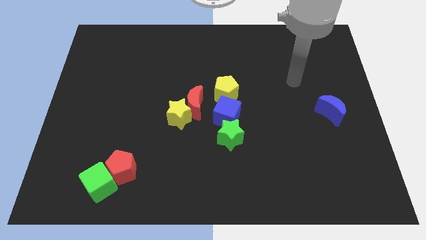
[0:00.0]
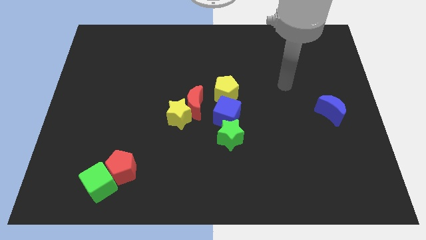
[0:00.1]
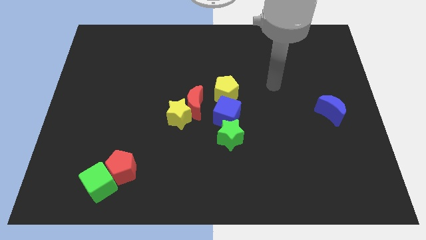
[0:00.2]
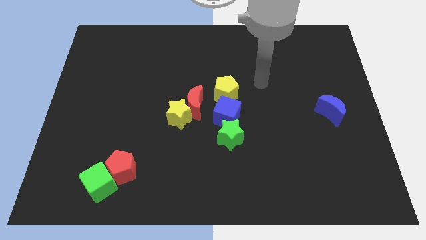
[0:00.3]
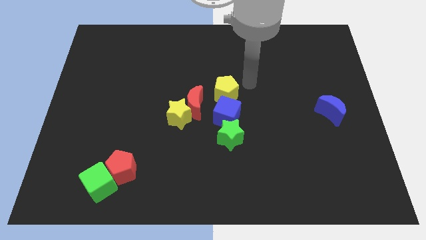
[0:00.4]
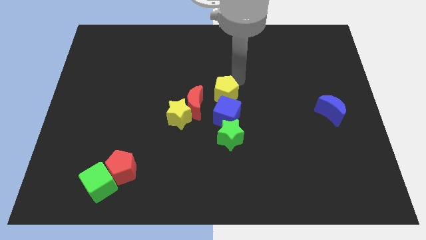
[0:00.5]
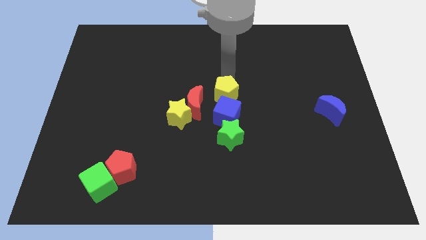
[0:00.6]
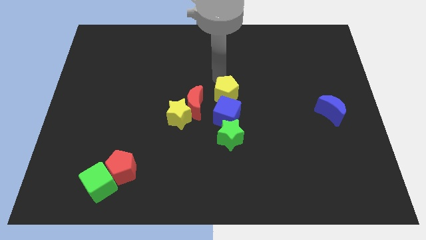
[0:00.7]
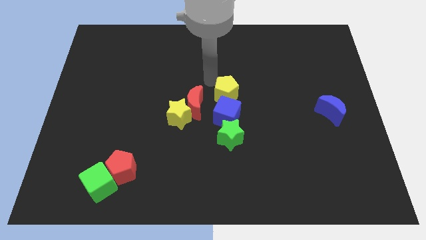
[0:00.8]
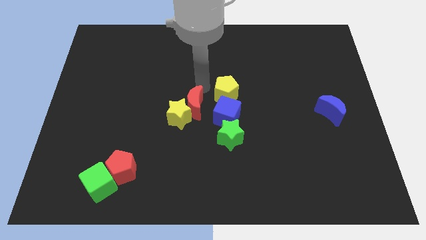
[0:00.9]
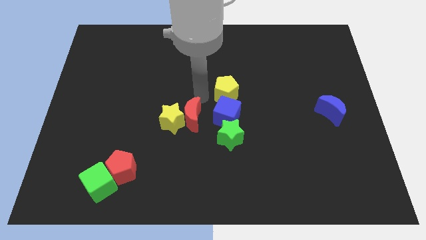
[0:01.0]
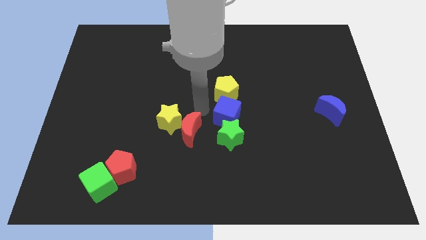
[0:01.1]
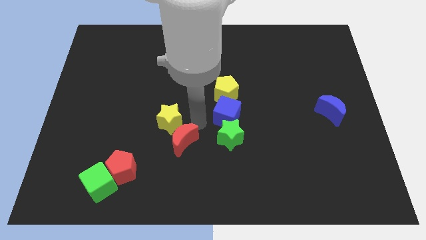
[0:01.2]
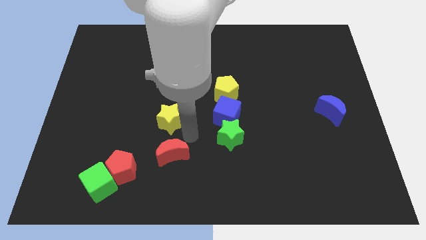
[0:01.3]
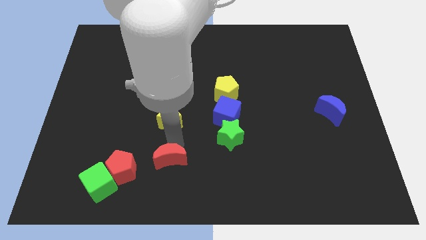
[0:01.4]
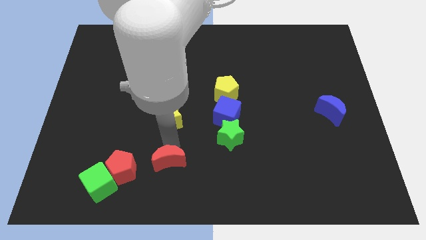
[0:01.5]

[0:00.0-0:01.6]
move the yellow star away from the red moon

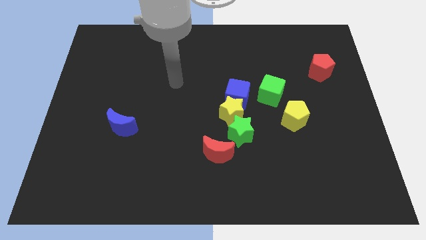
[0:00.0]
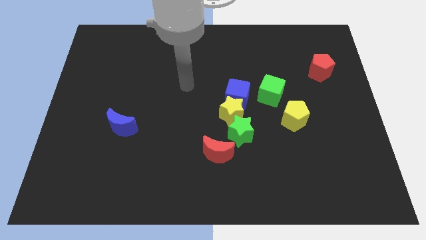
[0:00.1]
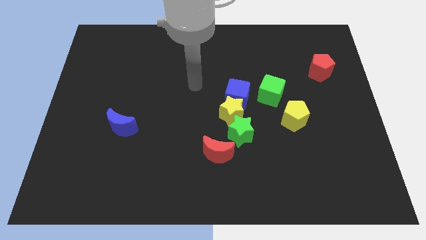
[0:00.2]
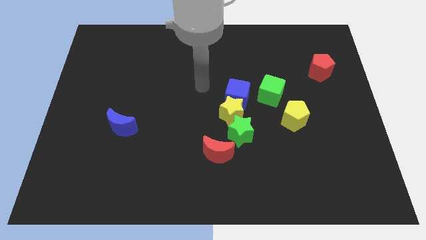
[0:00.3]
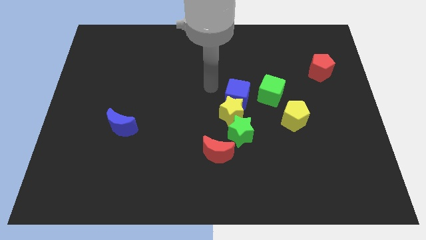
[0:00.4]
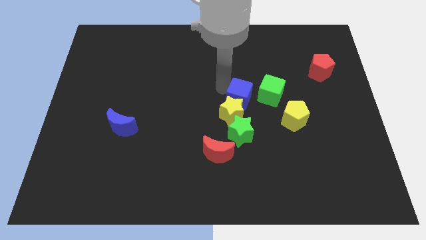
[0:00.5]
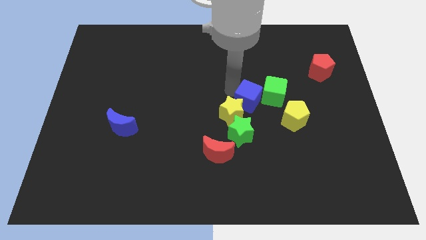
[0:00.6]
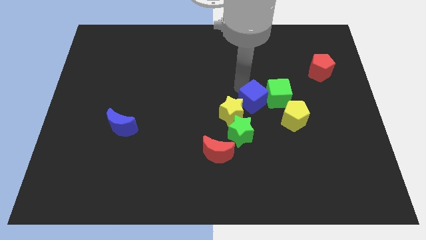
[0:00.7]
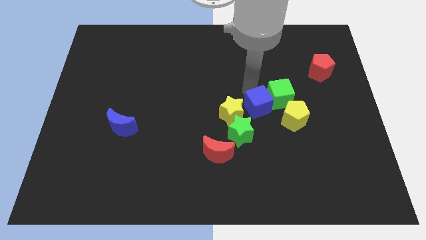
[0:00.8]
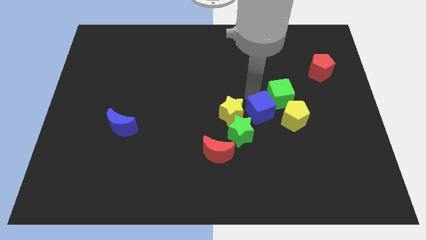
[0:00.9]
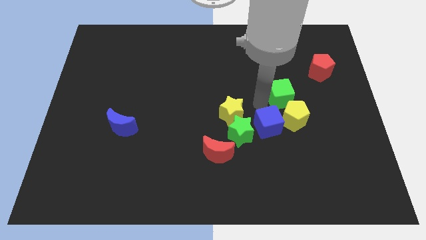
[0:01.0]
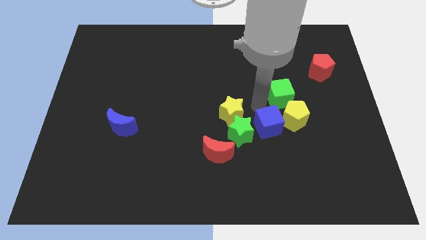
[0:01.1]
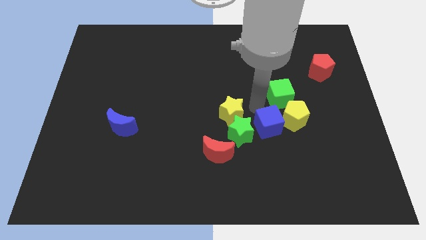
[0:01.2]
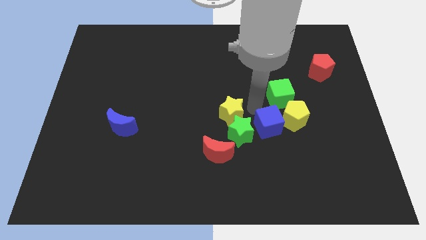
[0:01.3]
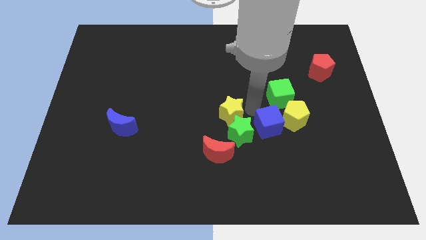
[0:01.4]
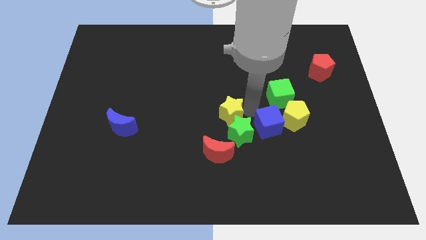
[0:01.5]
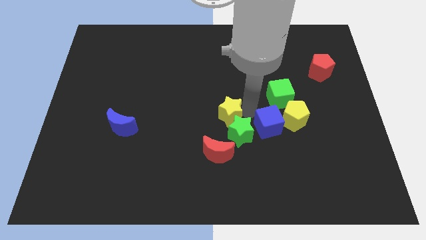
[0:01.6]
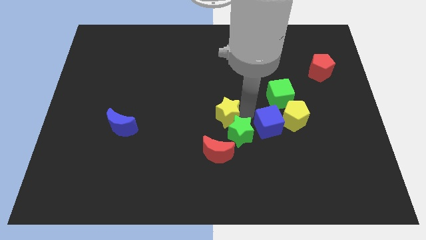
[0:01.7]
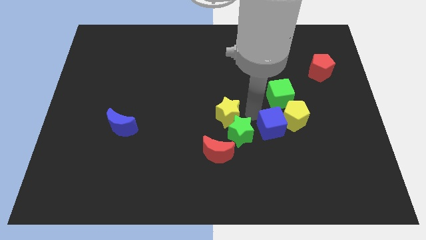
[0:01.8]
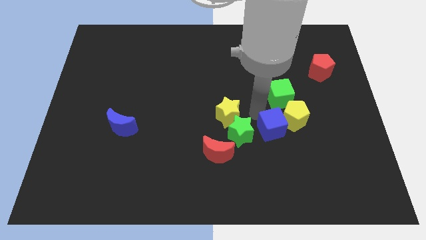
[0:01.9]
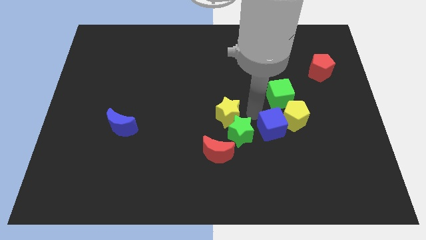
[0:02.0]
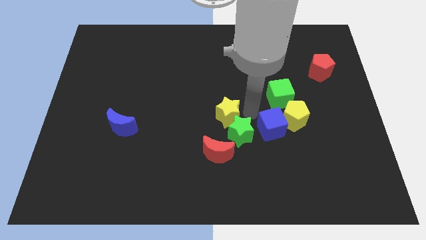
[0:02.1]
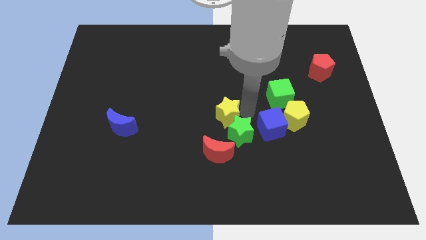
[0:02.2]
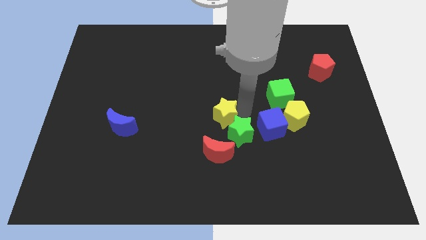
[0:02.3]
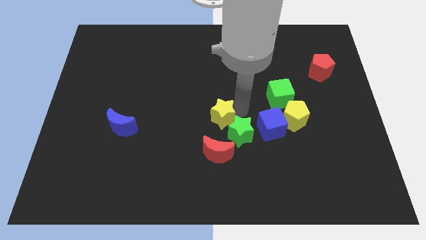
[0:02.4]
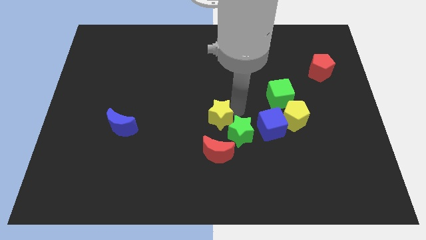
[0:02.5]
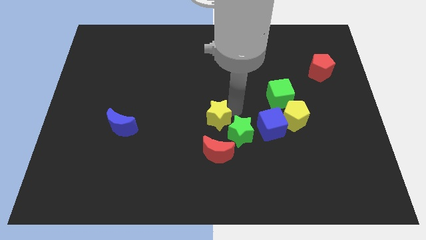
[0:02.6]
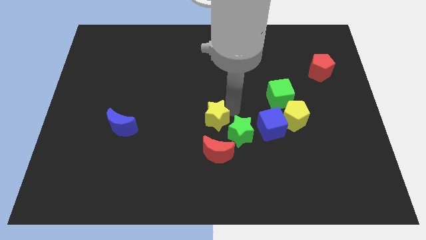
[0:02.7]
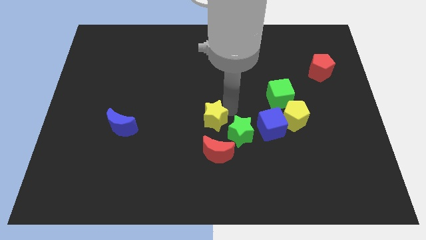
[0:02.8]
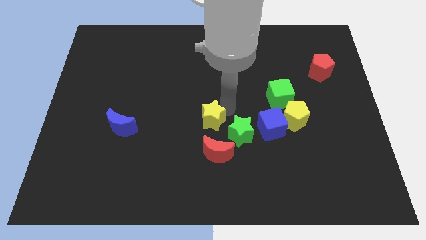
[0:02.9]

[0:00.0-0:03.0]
move the yellow star away from the blue cube and green star

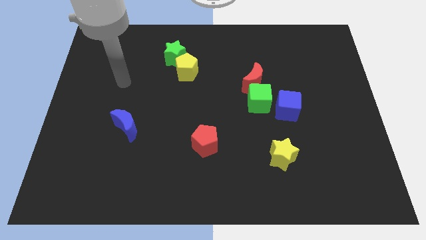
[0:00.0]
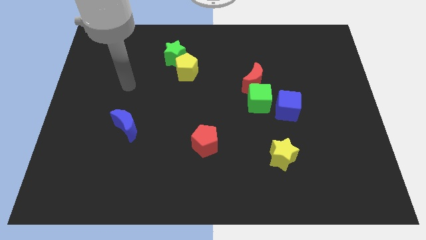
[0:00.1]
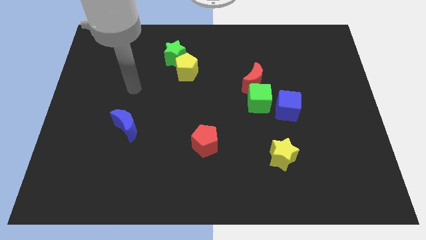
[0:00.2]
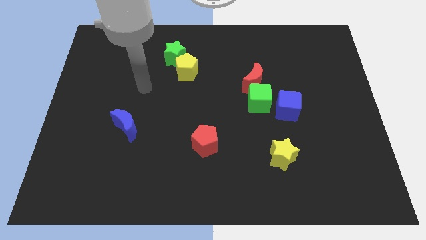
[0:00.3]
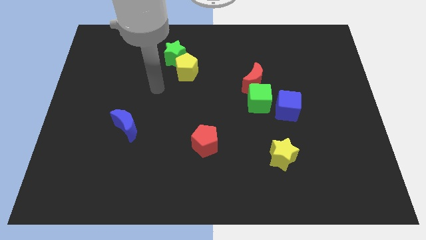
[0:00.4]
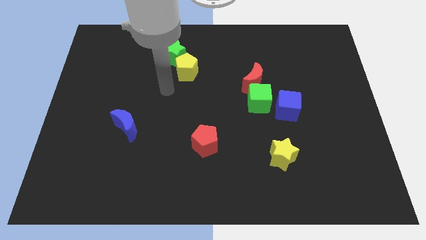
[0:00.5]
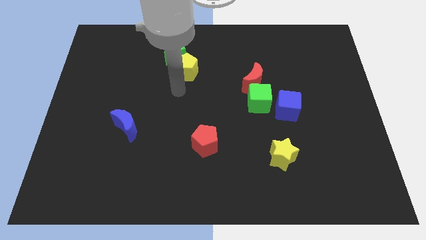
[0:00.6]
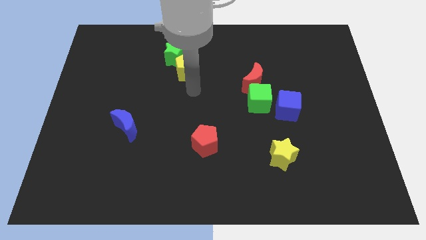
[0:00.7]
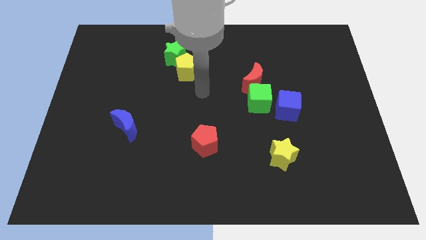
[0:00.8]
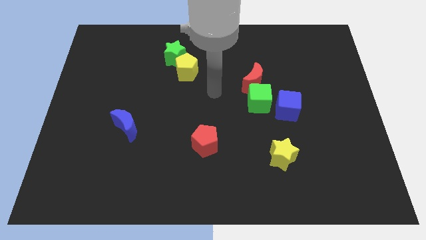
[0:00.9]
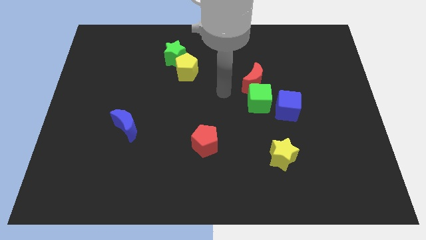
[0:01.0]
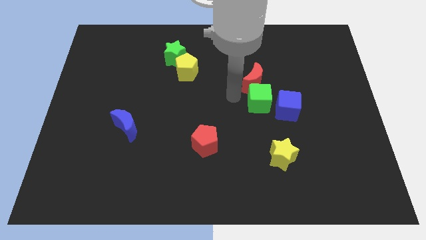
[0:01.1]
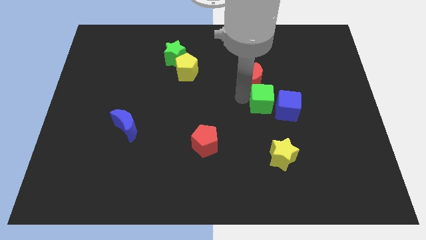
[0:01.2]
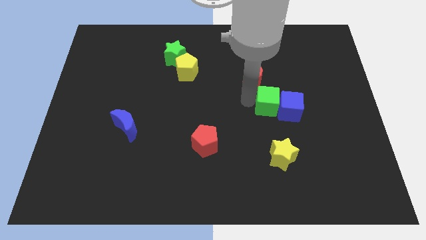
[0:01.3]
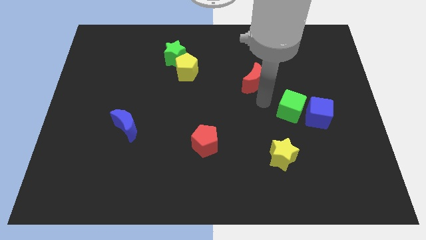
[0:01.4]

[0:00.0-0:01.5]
separate the red moon from the green cube

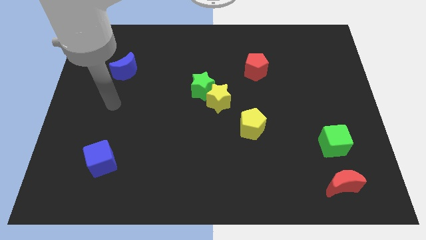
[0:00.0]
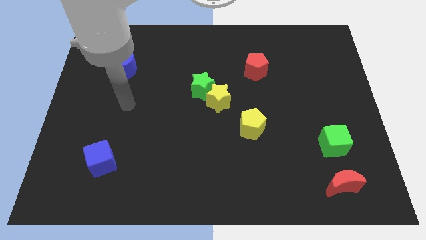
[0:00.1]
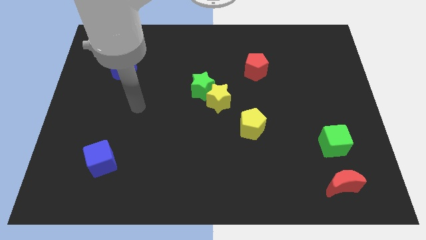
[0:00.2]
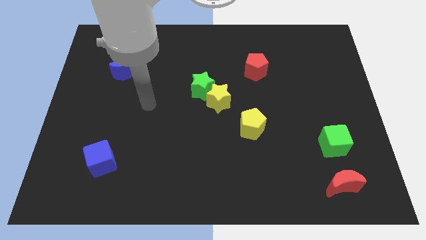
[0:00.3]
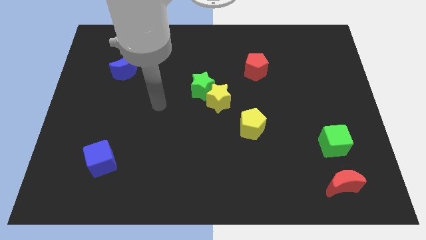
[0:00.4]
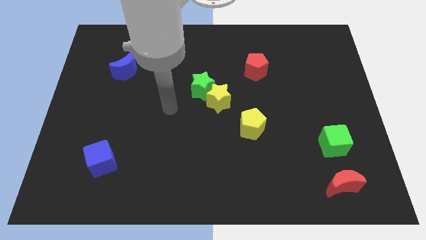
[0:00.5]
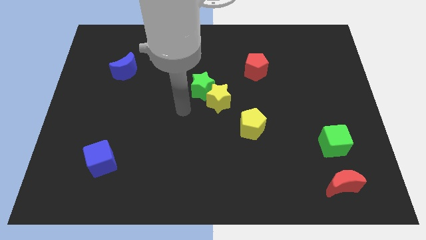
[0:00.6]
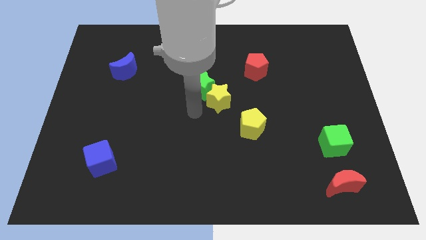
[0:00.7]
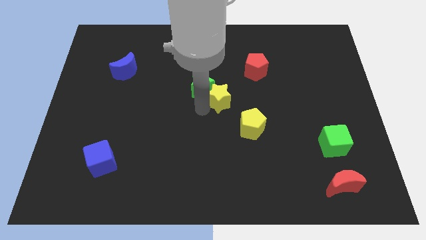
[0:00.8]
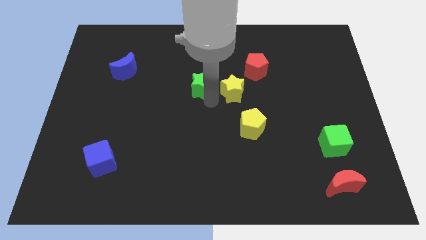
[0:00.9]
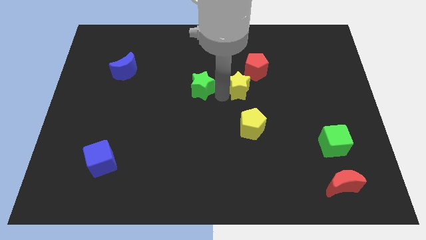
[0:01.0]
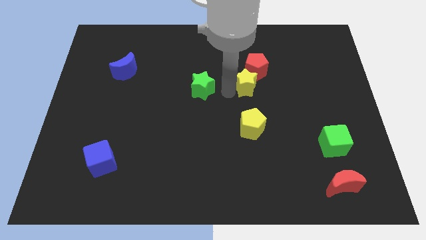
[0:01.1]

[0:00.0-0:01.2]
pull the green star apart from the yellow star

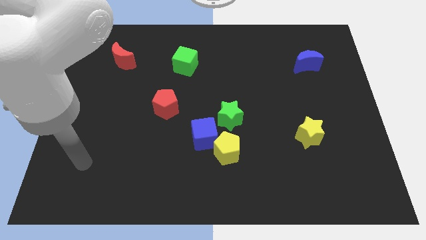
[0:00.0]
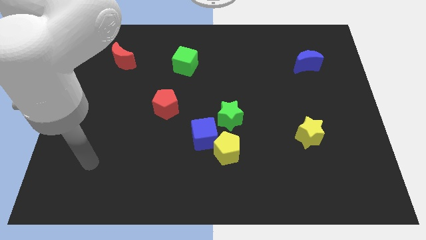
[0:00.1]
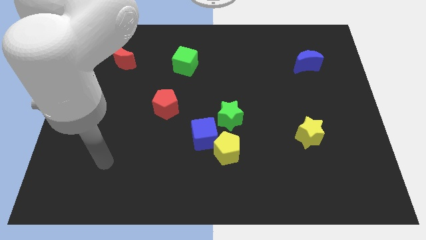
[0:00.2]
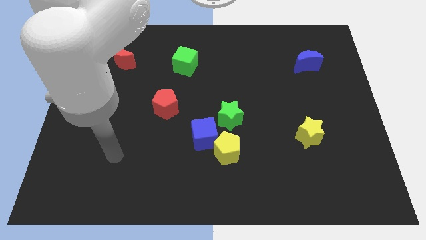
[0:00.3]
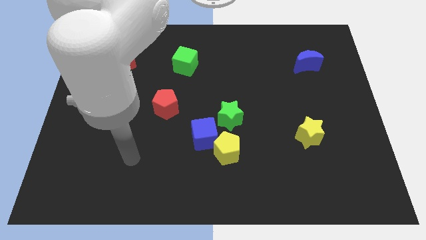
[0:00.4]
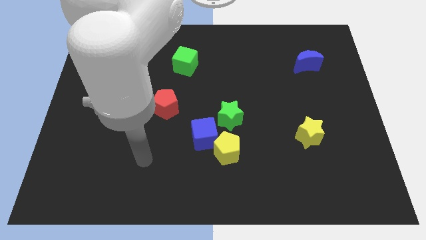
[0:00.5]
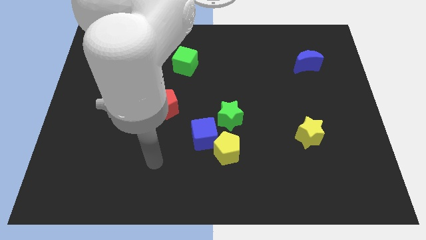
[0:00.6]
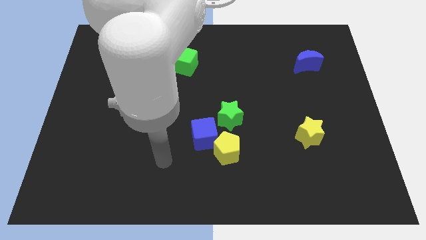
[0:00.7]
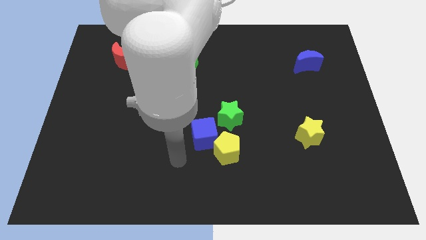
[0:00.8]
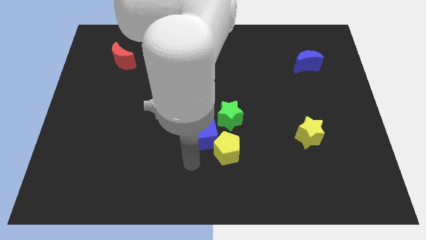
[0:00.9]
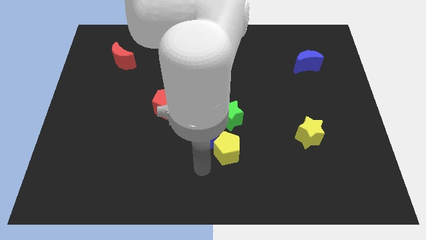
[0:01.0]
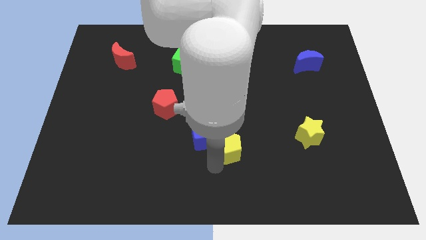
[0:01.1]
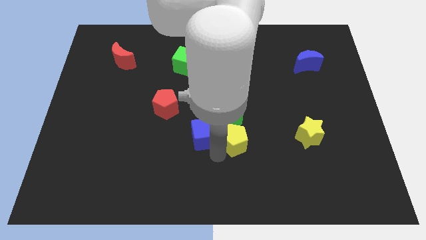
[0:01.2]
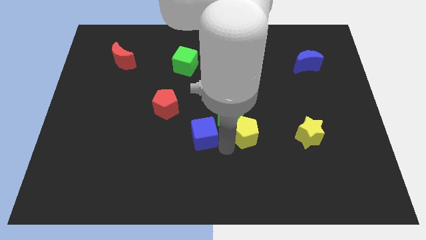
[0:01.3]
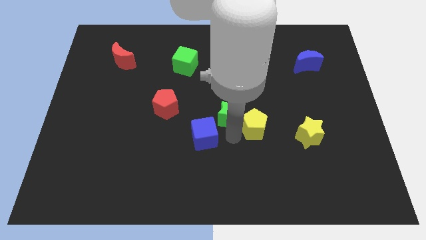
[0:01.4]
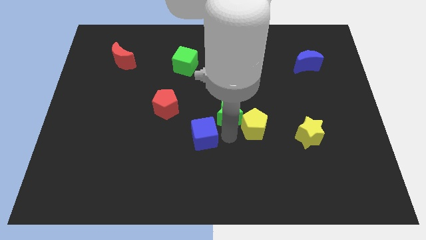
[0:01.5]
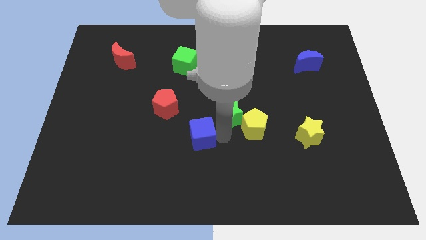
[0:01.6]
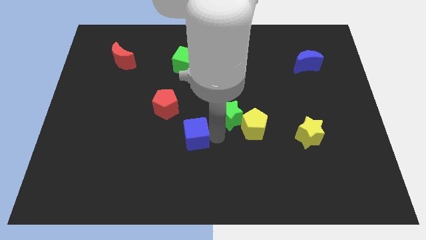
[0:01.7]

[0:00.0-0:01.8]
separate the blue cube from the yellow pentagon and green star

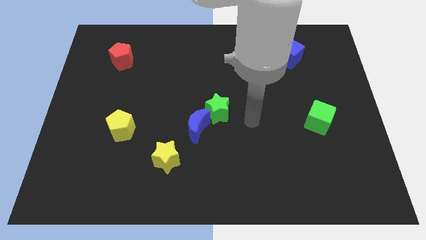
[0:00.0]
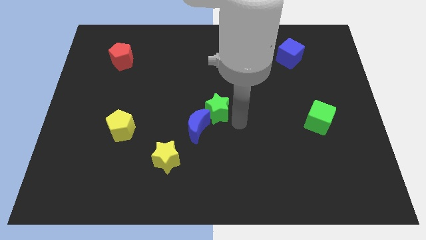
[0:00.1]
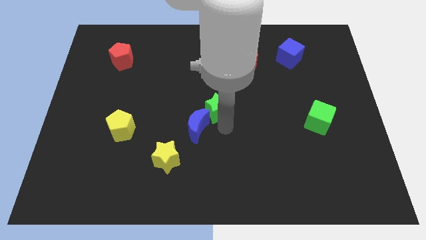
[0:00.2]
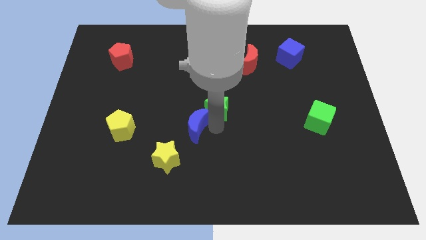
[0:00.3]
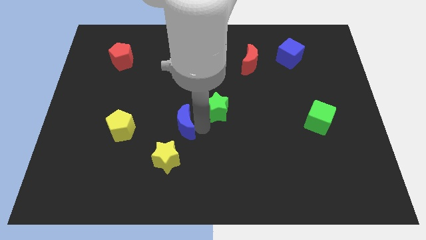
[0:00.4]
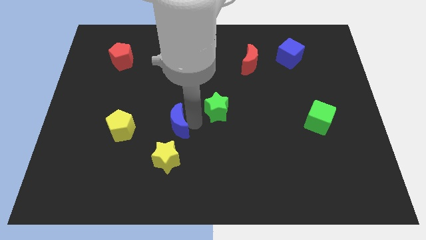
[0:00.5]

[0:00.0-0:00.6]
pull the green star apart from the blue moon
